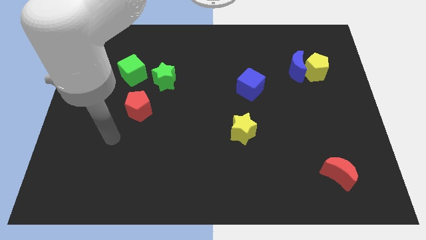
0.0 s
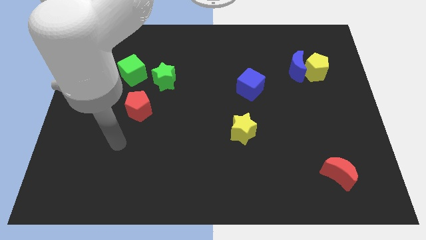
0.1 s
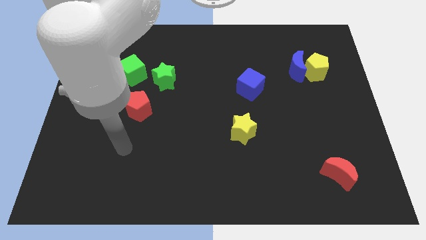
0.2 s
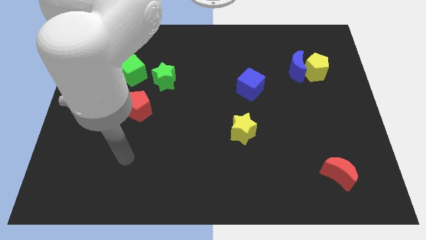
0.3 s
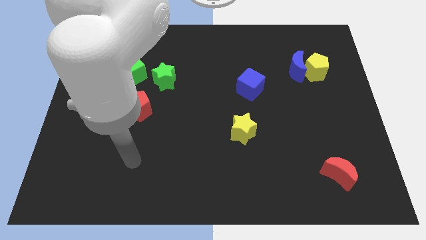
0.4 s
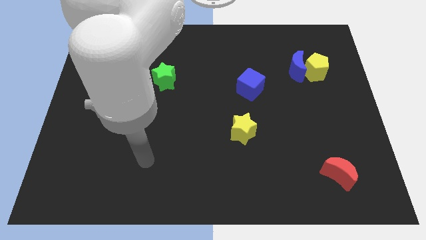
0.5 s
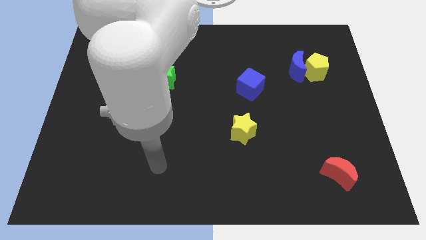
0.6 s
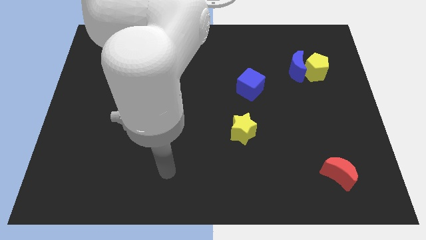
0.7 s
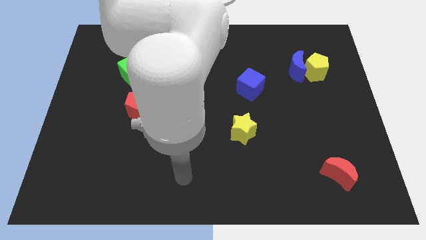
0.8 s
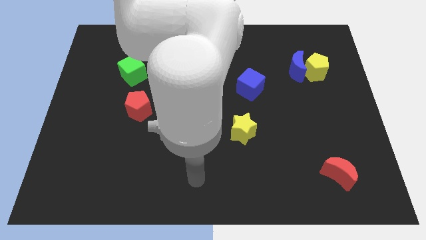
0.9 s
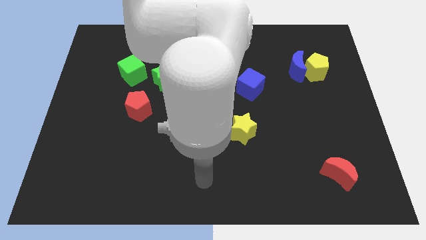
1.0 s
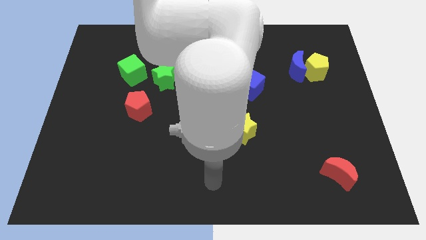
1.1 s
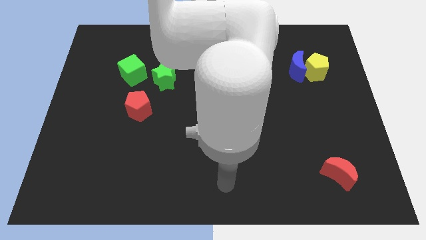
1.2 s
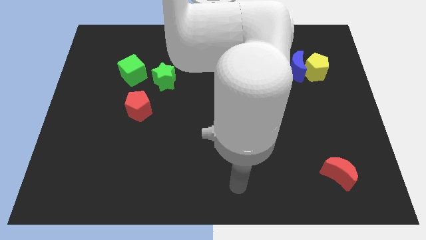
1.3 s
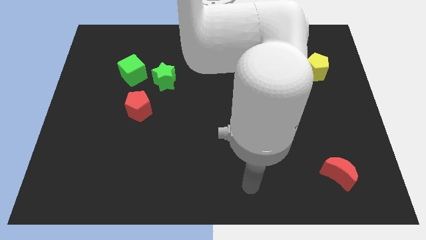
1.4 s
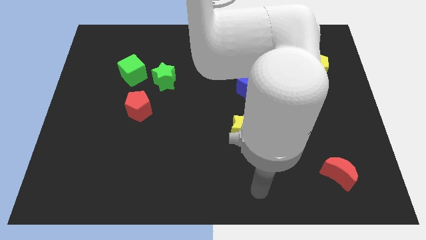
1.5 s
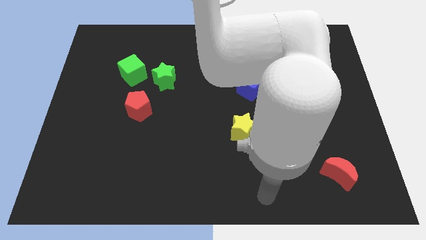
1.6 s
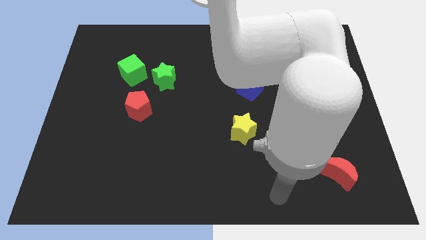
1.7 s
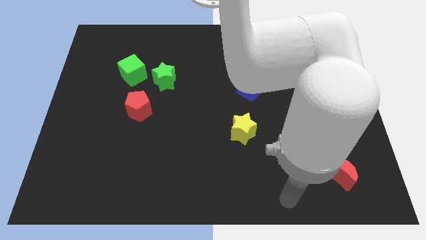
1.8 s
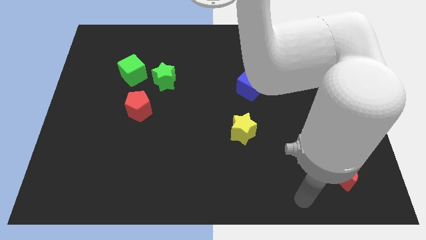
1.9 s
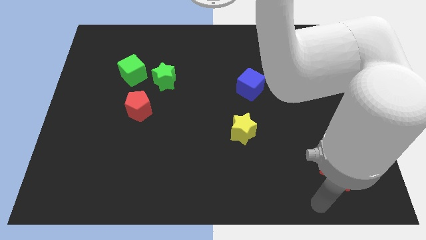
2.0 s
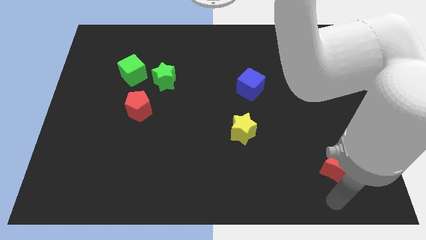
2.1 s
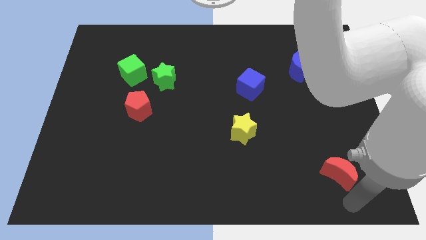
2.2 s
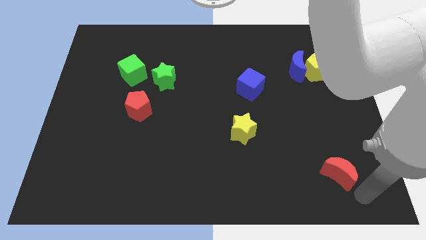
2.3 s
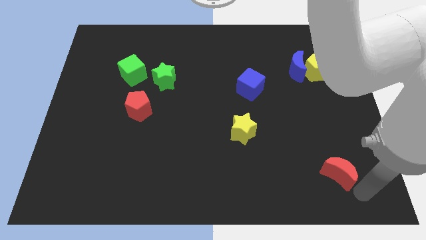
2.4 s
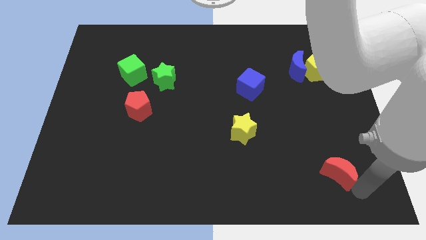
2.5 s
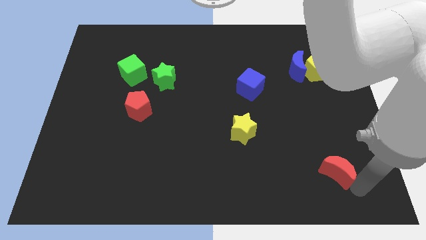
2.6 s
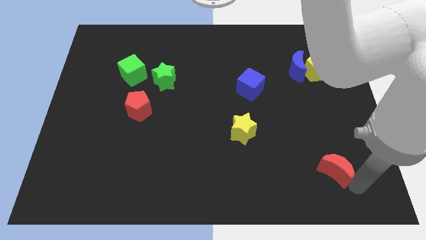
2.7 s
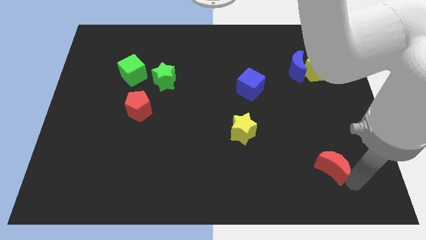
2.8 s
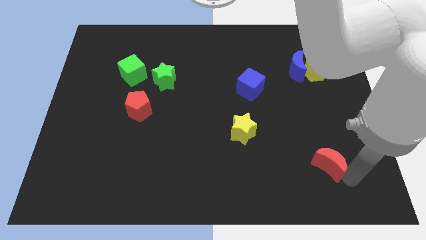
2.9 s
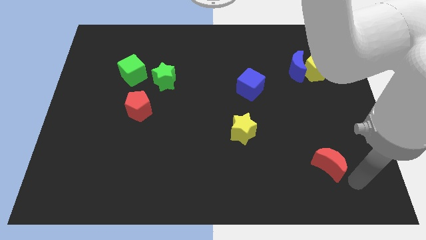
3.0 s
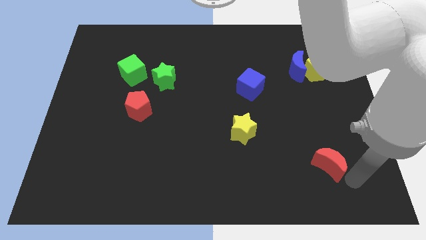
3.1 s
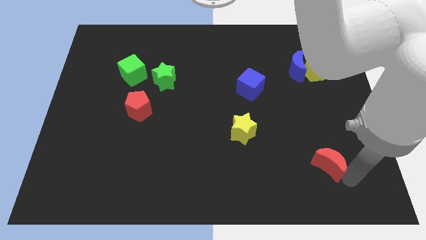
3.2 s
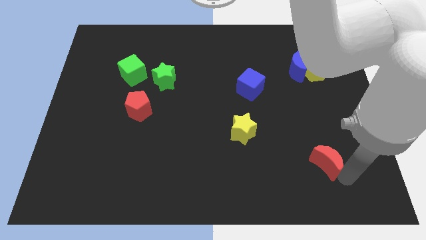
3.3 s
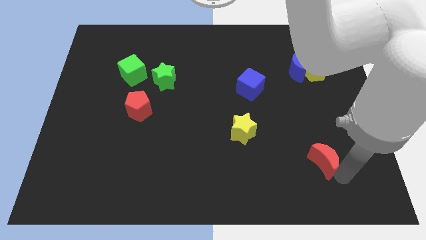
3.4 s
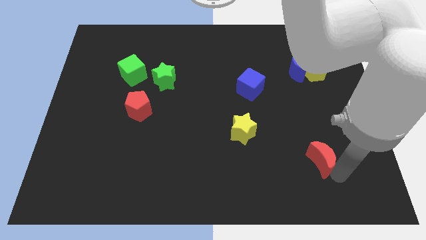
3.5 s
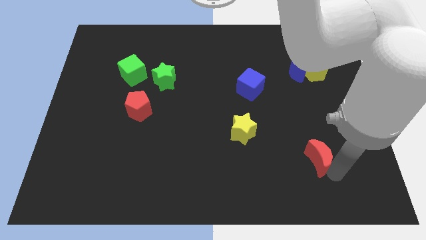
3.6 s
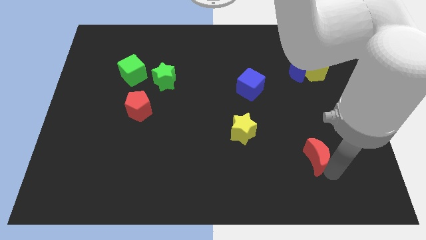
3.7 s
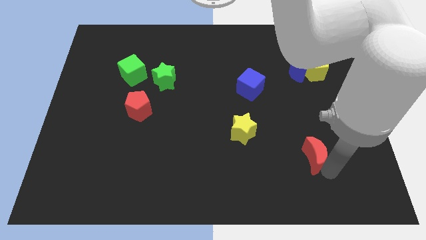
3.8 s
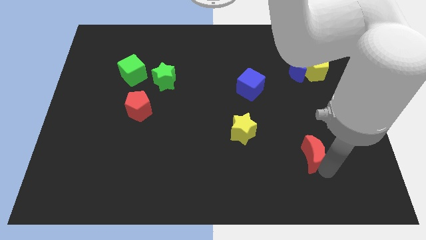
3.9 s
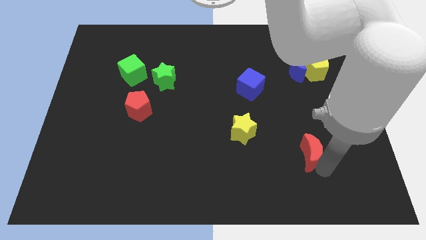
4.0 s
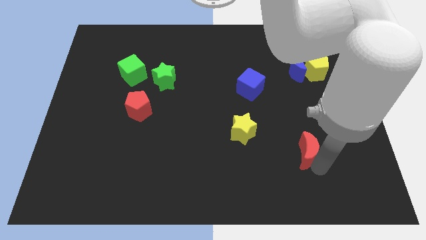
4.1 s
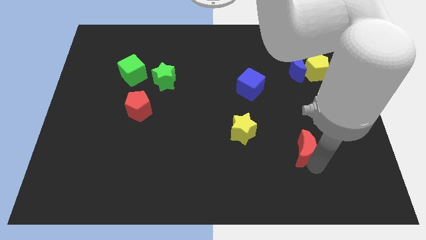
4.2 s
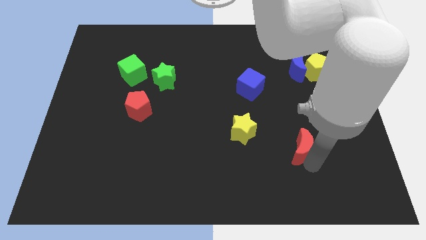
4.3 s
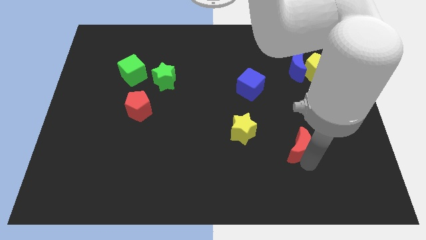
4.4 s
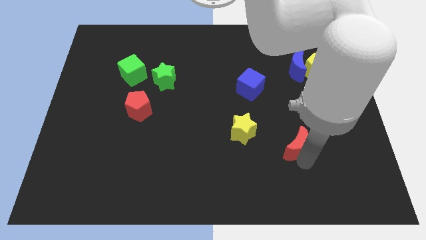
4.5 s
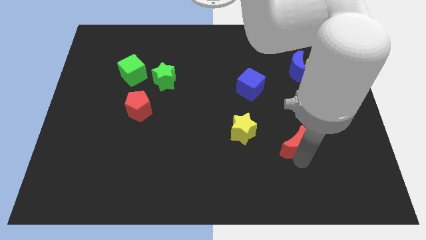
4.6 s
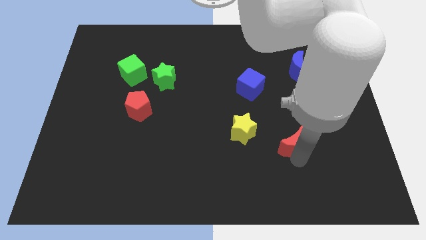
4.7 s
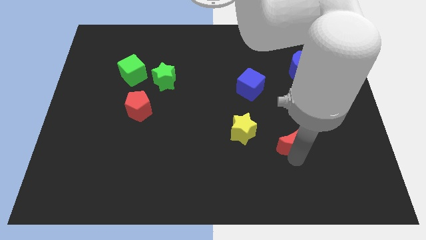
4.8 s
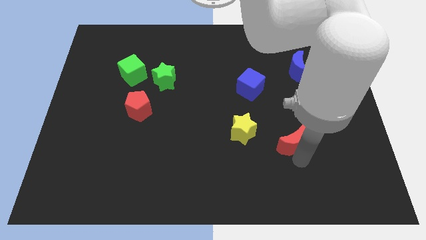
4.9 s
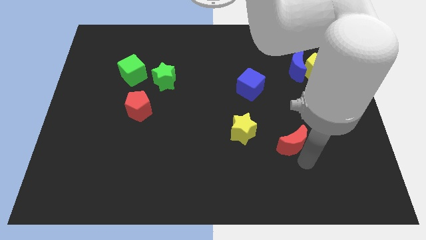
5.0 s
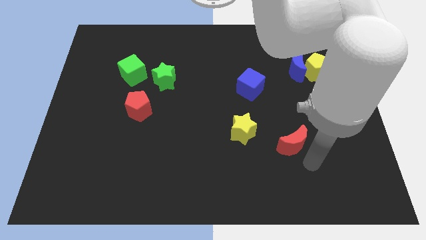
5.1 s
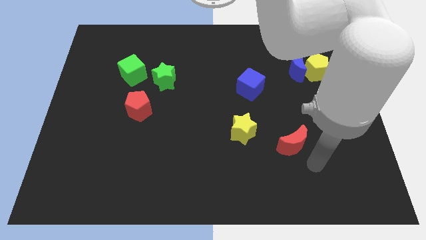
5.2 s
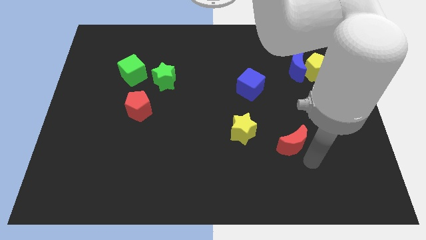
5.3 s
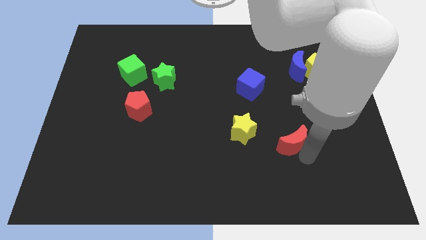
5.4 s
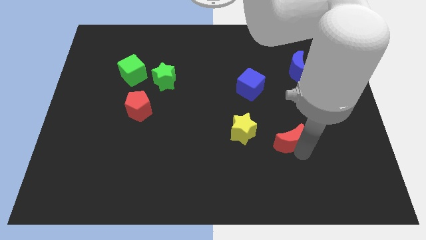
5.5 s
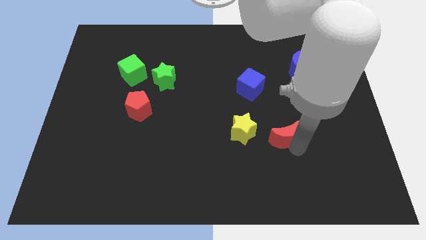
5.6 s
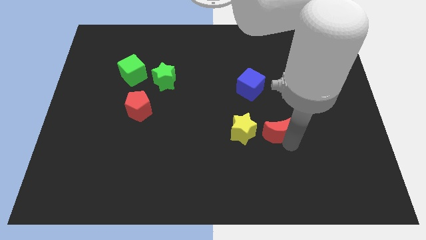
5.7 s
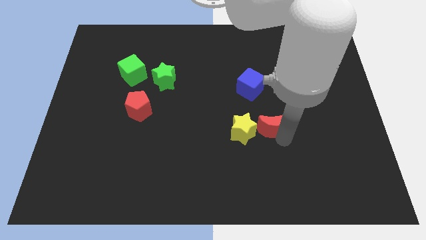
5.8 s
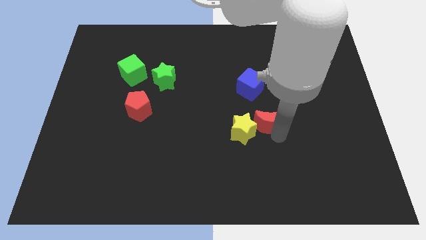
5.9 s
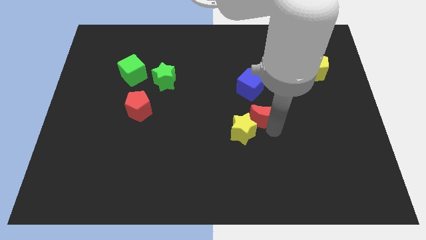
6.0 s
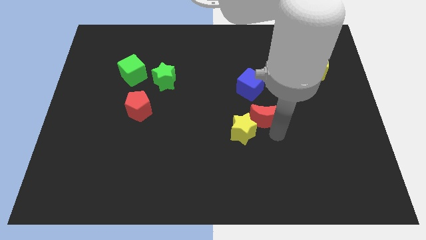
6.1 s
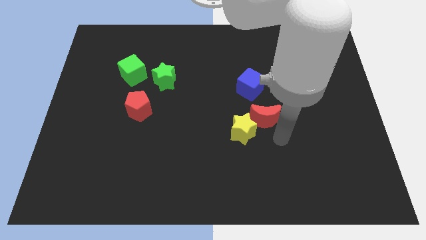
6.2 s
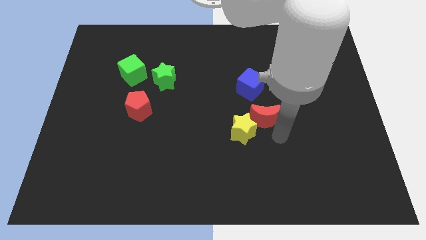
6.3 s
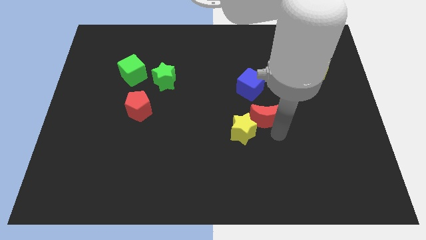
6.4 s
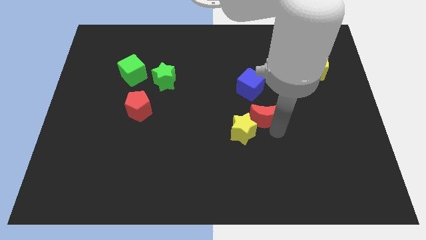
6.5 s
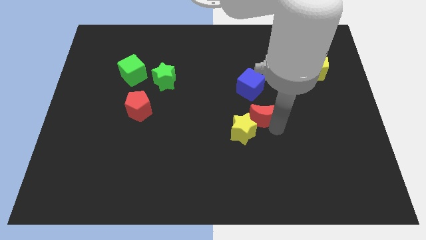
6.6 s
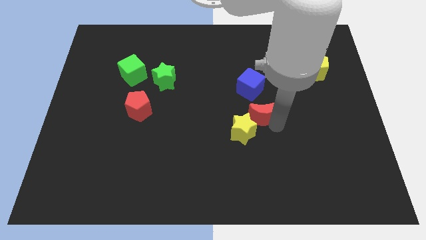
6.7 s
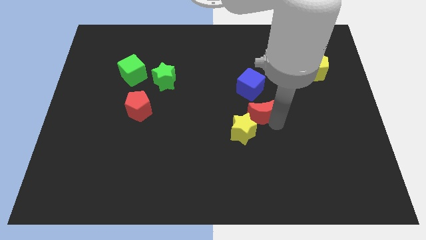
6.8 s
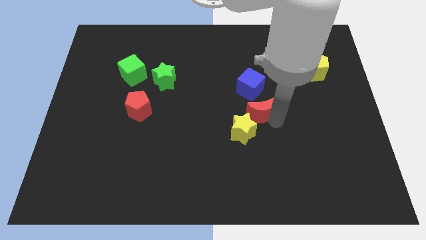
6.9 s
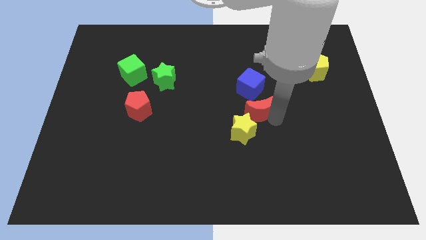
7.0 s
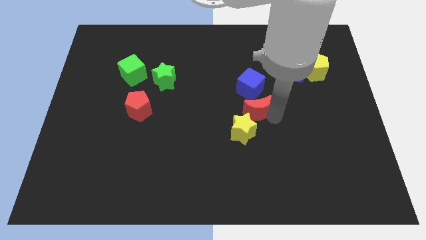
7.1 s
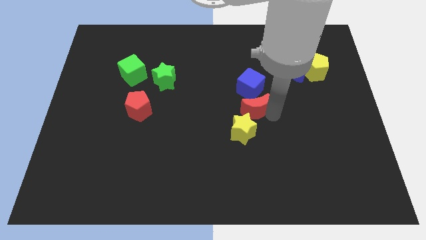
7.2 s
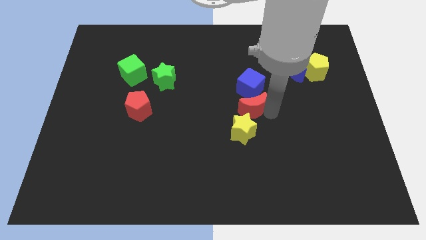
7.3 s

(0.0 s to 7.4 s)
slide the red moon diagonally down and to the left of the blue cube
